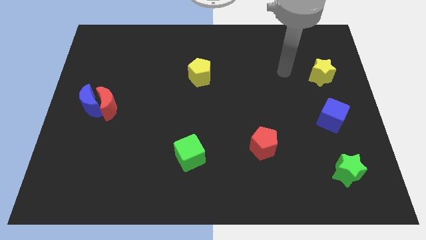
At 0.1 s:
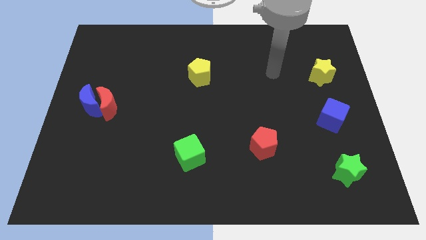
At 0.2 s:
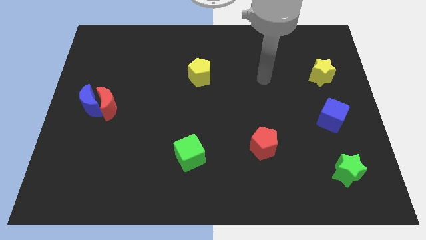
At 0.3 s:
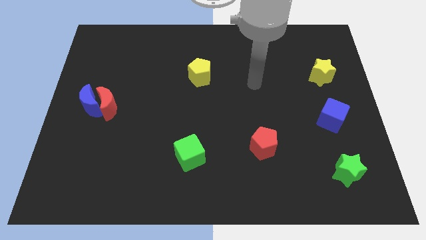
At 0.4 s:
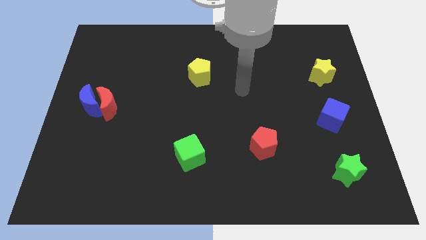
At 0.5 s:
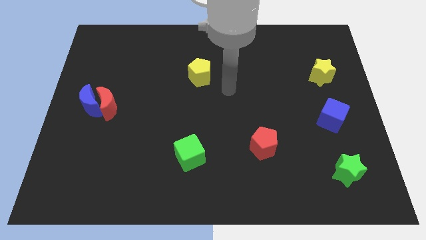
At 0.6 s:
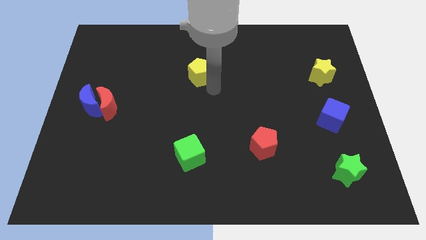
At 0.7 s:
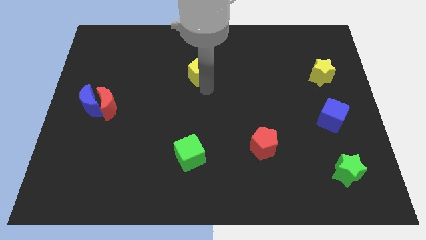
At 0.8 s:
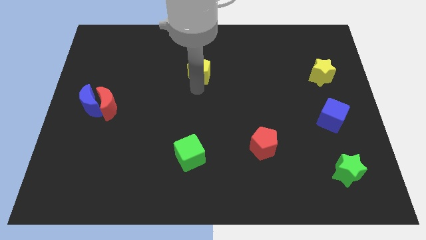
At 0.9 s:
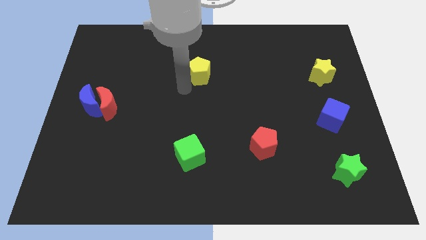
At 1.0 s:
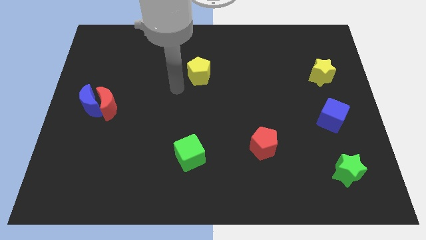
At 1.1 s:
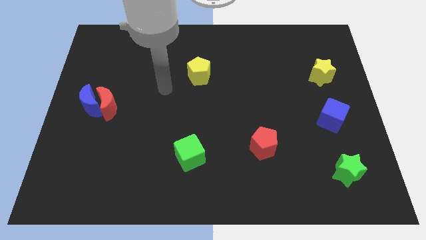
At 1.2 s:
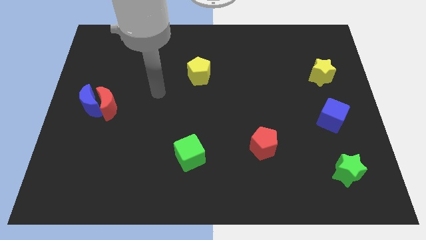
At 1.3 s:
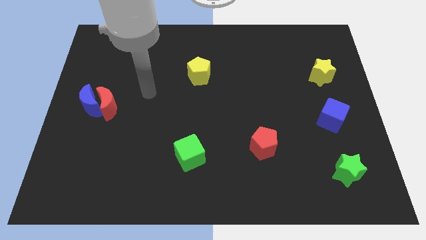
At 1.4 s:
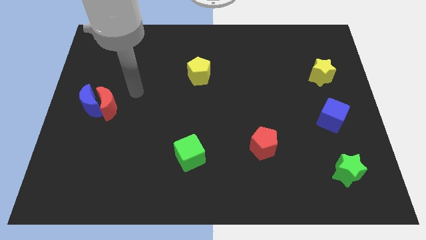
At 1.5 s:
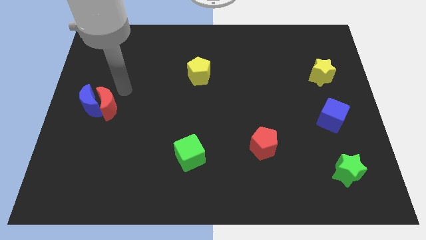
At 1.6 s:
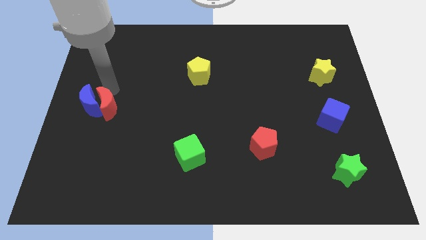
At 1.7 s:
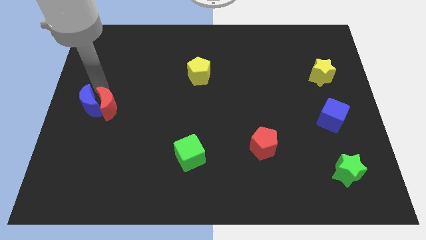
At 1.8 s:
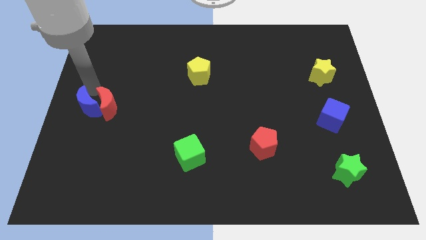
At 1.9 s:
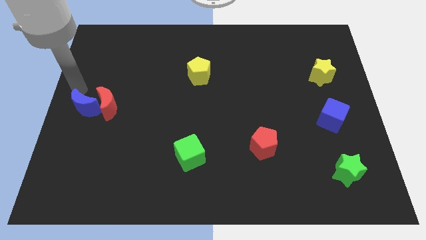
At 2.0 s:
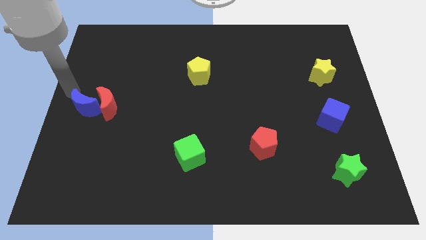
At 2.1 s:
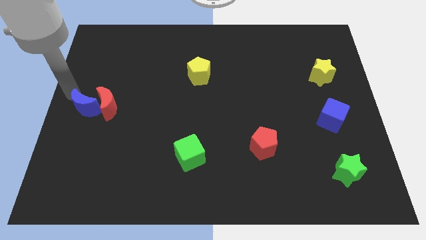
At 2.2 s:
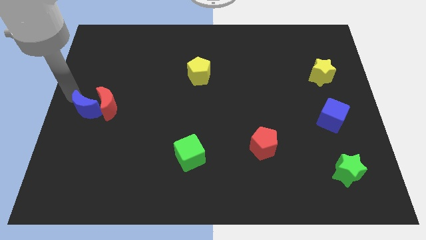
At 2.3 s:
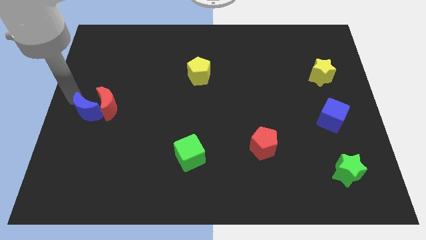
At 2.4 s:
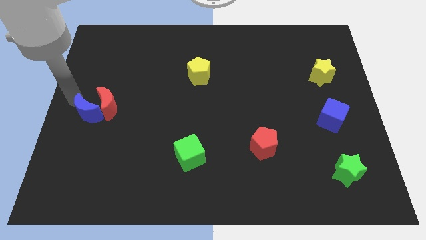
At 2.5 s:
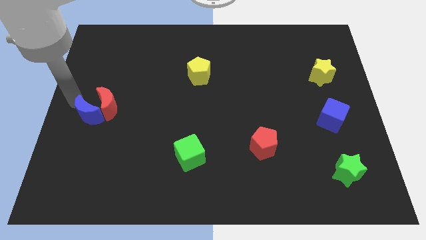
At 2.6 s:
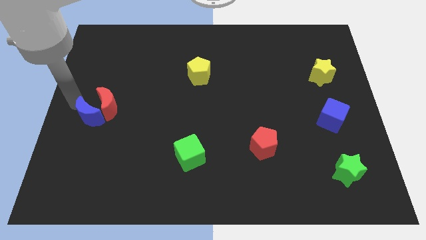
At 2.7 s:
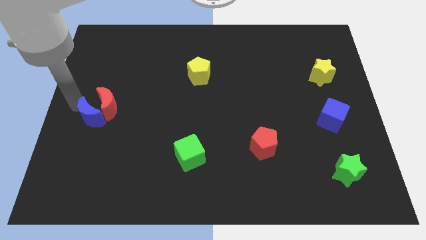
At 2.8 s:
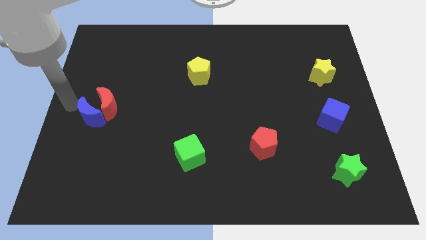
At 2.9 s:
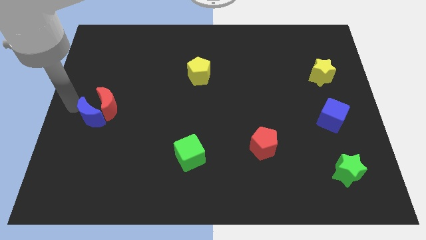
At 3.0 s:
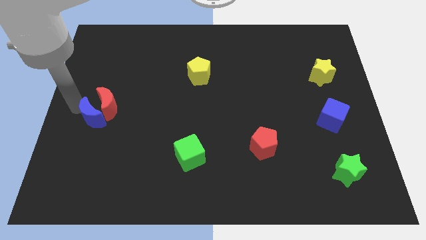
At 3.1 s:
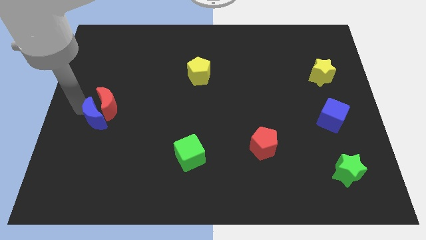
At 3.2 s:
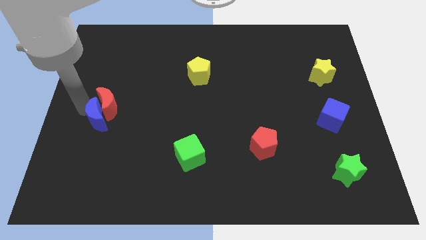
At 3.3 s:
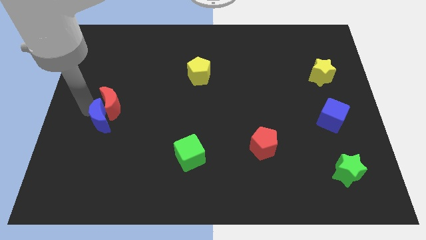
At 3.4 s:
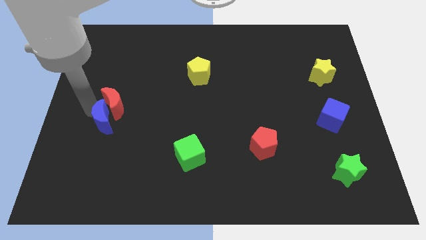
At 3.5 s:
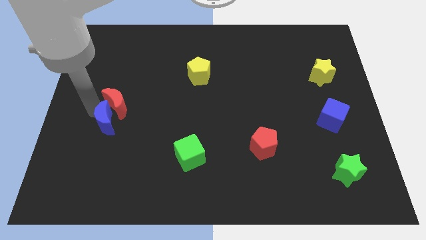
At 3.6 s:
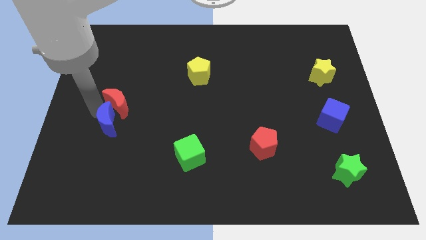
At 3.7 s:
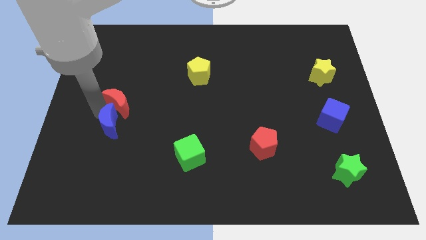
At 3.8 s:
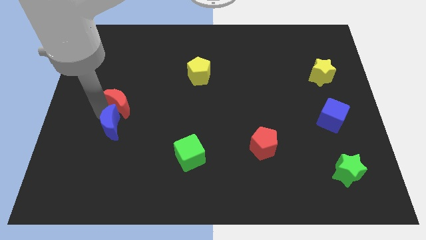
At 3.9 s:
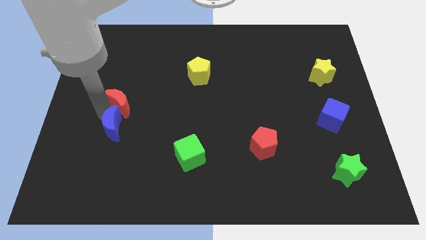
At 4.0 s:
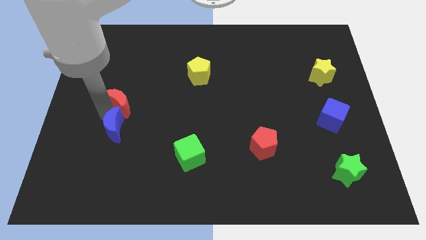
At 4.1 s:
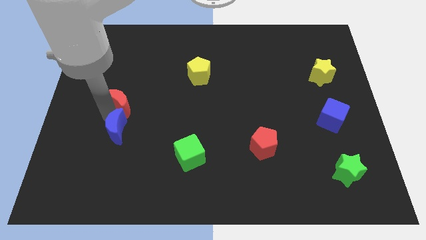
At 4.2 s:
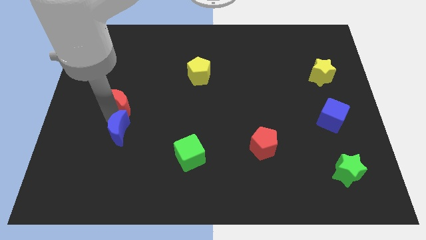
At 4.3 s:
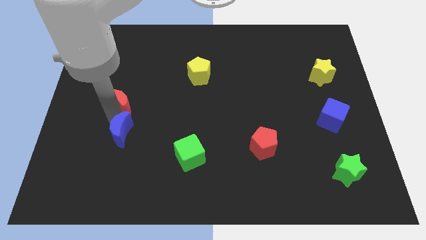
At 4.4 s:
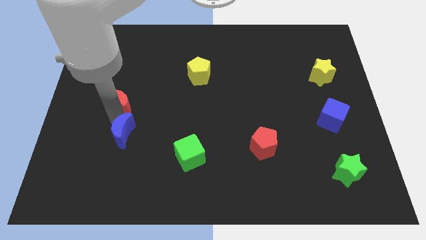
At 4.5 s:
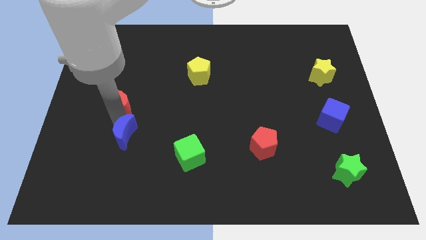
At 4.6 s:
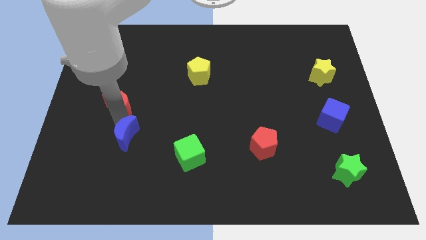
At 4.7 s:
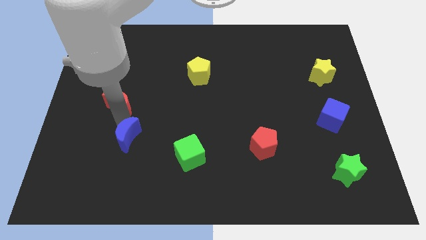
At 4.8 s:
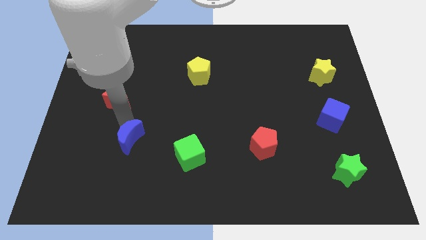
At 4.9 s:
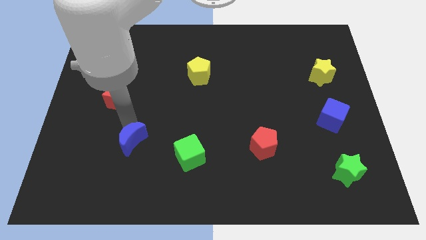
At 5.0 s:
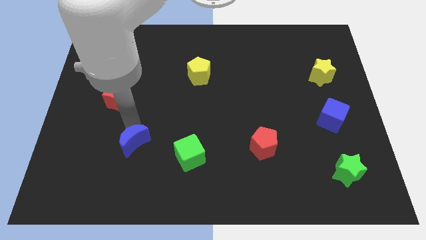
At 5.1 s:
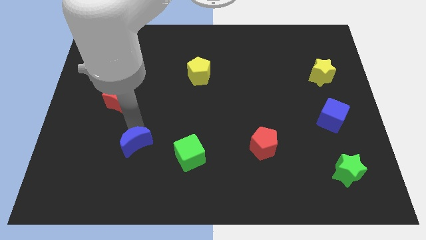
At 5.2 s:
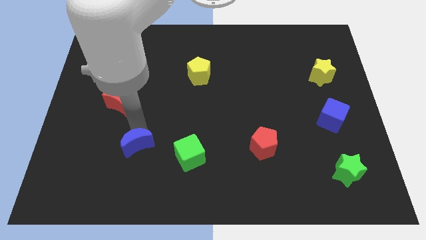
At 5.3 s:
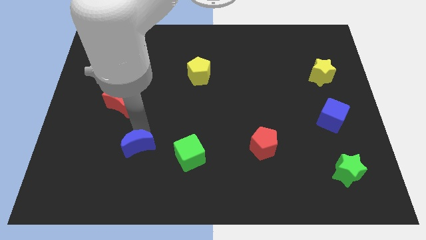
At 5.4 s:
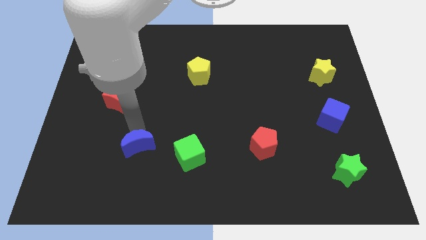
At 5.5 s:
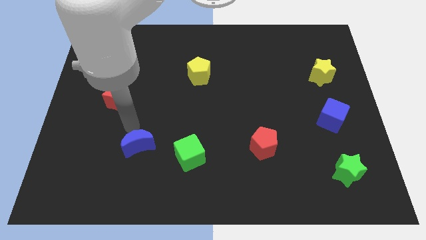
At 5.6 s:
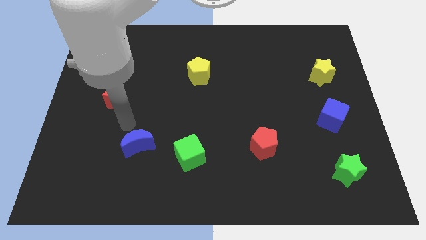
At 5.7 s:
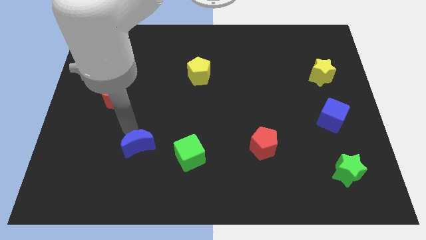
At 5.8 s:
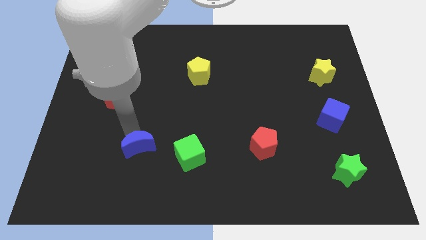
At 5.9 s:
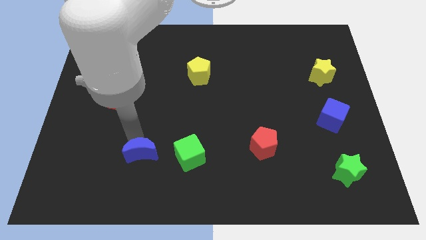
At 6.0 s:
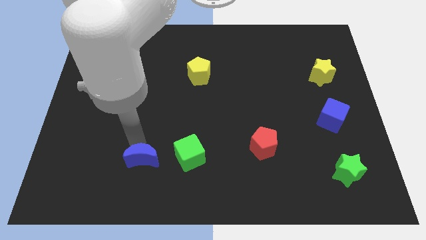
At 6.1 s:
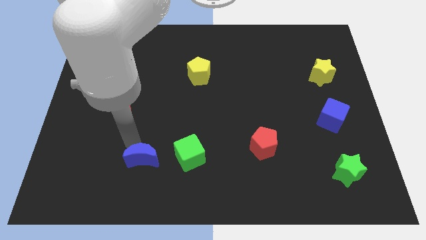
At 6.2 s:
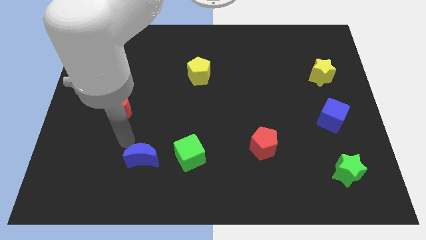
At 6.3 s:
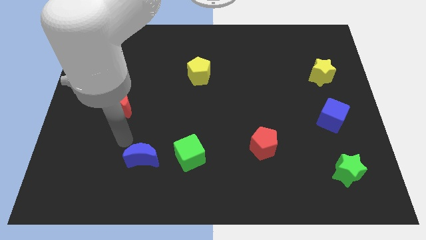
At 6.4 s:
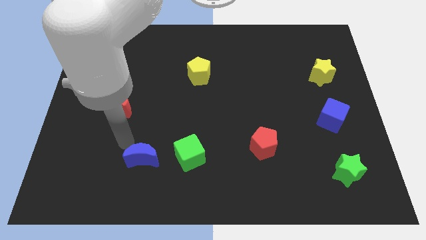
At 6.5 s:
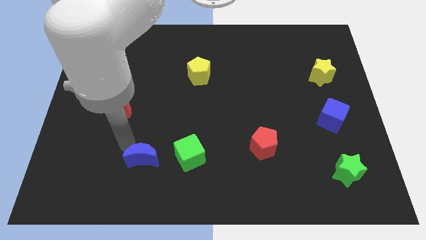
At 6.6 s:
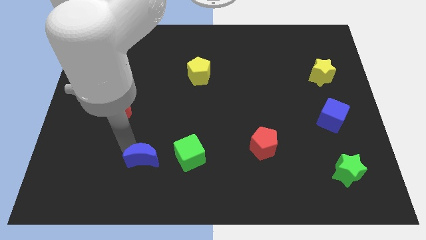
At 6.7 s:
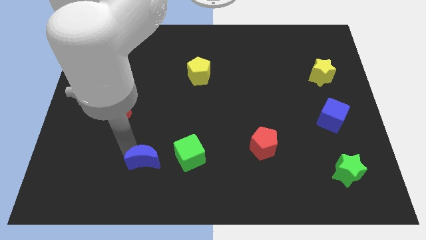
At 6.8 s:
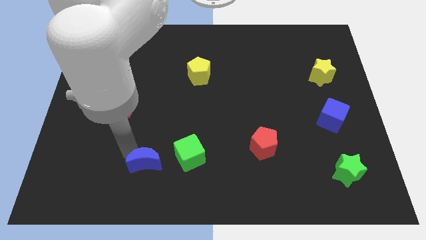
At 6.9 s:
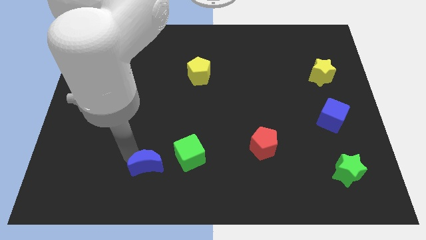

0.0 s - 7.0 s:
move the blue moon to the bottom left side of the green cube

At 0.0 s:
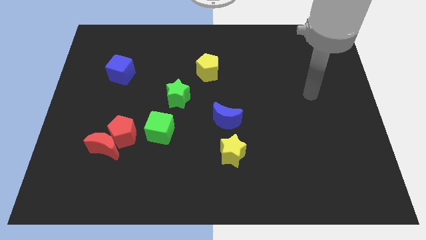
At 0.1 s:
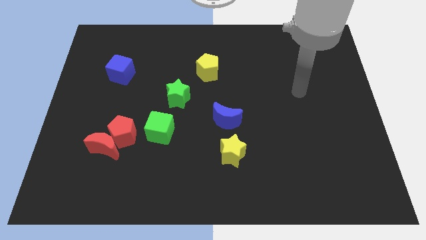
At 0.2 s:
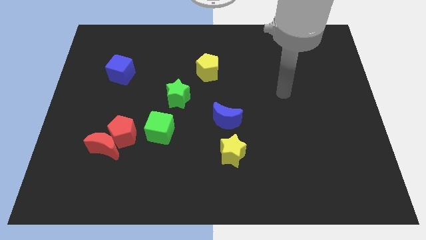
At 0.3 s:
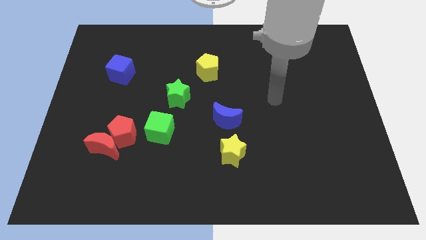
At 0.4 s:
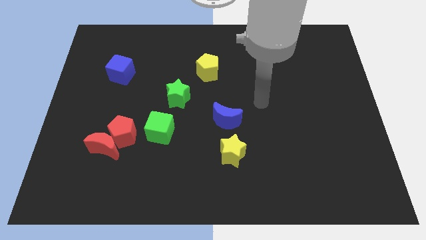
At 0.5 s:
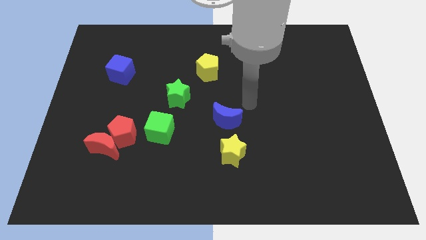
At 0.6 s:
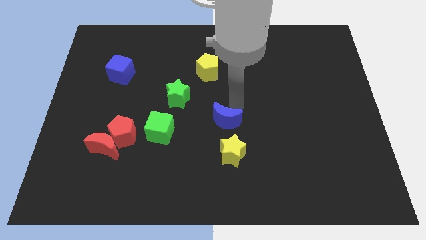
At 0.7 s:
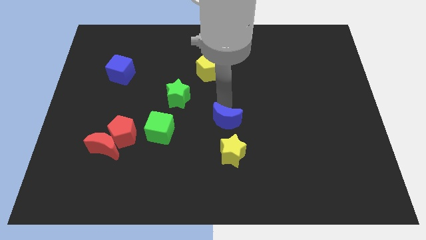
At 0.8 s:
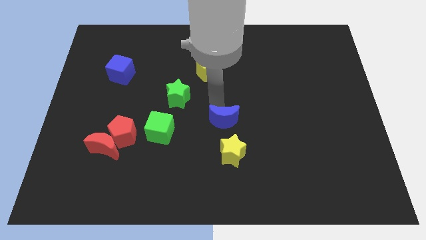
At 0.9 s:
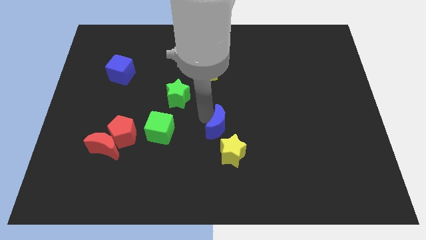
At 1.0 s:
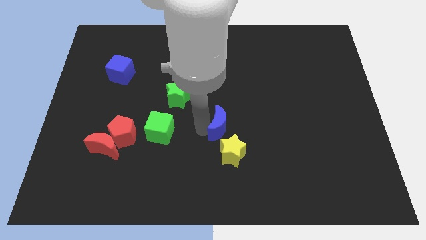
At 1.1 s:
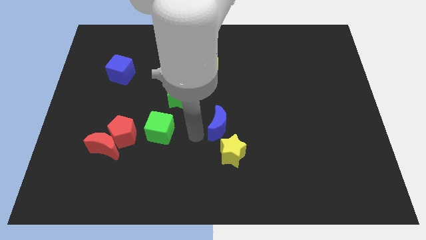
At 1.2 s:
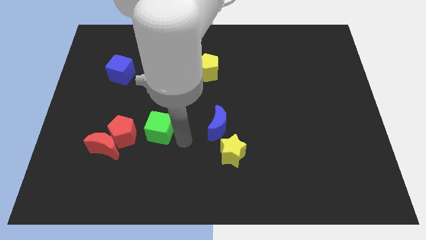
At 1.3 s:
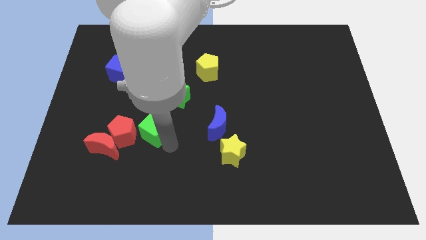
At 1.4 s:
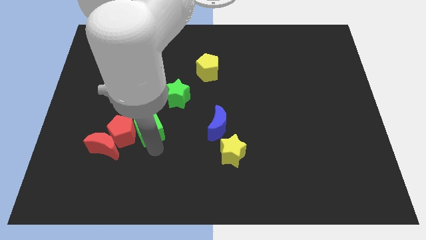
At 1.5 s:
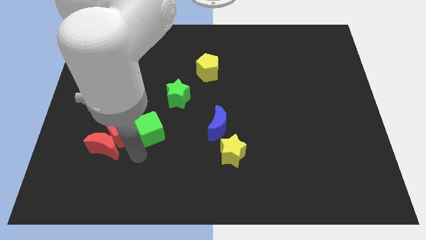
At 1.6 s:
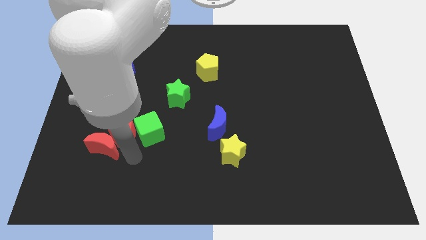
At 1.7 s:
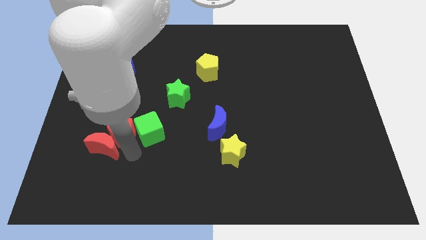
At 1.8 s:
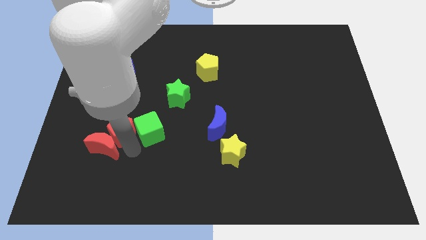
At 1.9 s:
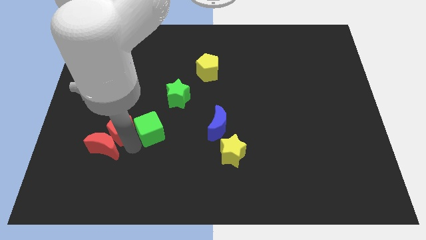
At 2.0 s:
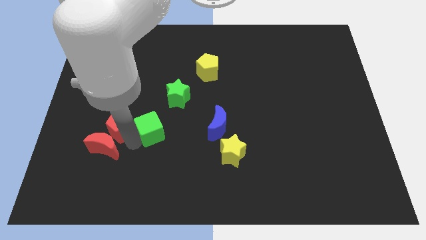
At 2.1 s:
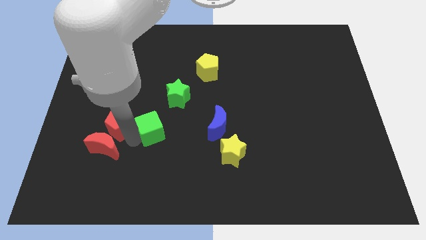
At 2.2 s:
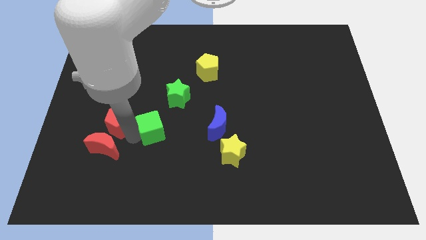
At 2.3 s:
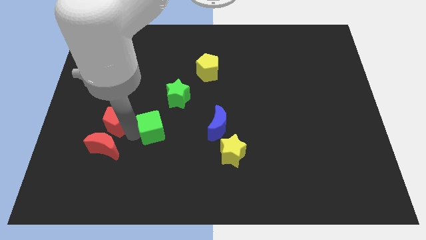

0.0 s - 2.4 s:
put the red pentagon to the bottom of the blue cube
